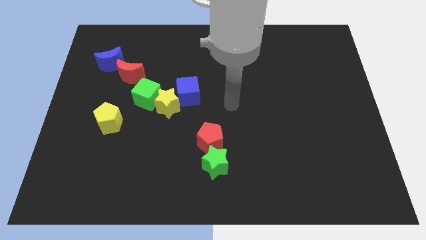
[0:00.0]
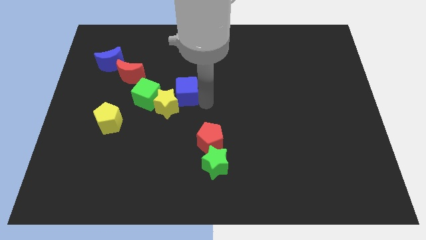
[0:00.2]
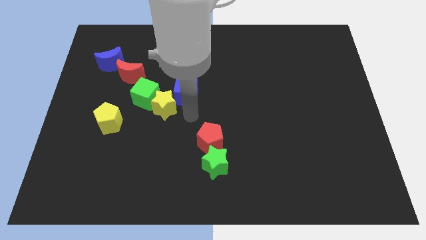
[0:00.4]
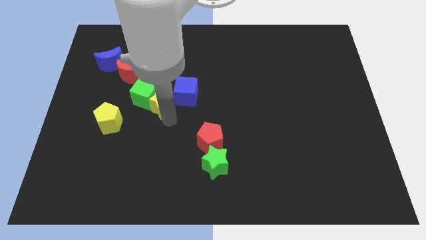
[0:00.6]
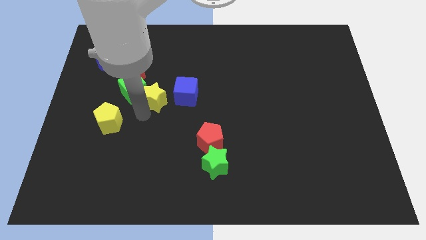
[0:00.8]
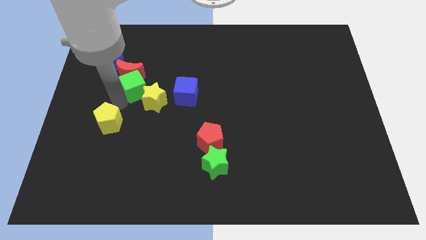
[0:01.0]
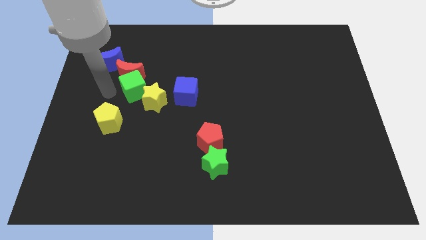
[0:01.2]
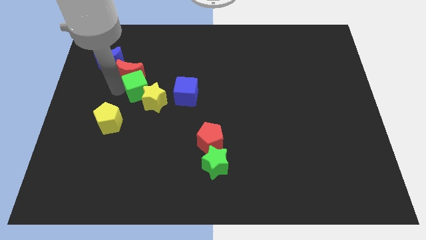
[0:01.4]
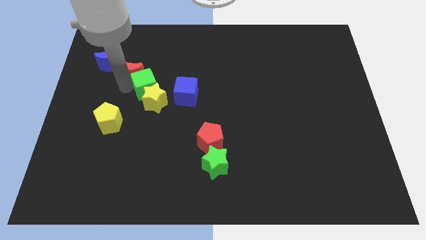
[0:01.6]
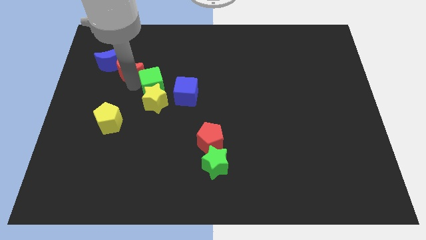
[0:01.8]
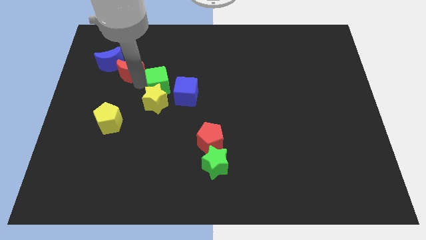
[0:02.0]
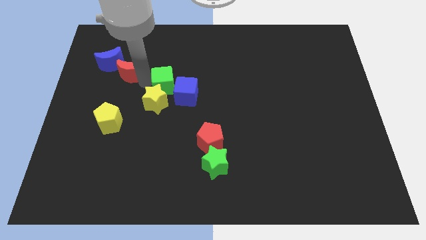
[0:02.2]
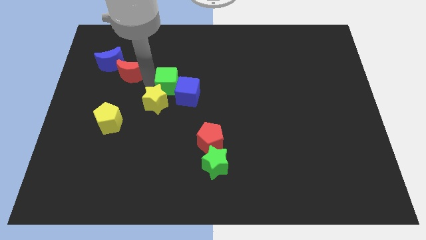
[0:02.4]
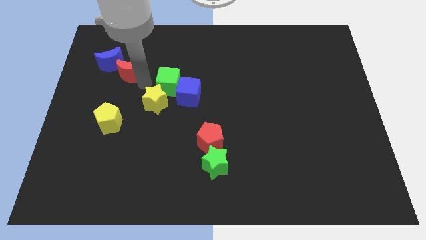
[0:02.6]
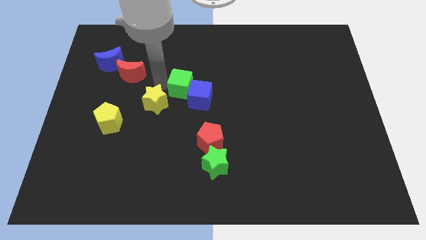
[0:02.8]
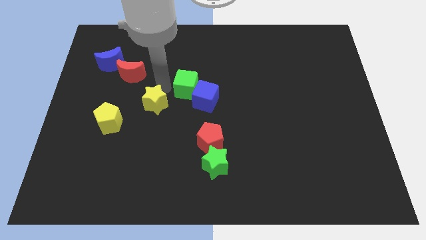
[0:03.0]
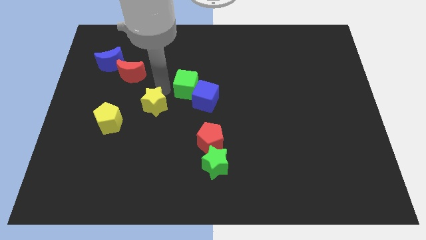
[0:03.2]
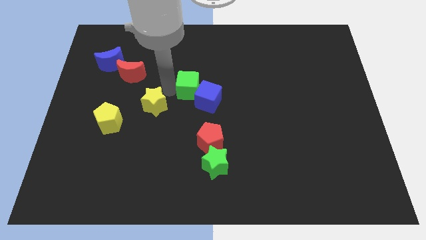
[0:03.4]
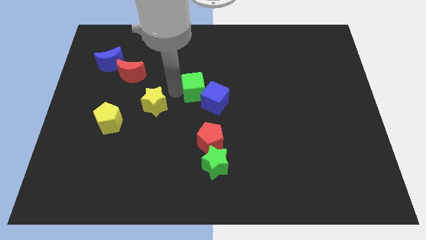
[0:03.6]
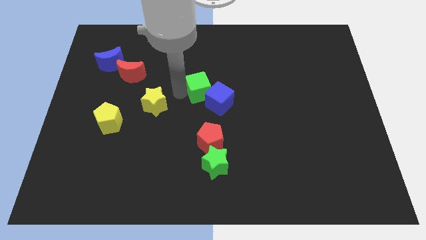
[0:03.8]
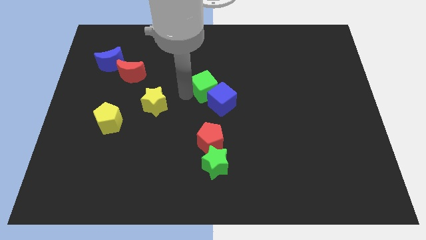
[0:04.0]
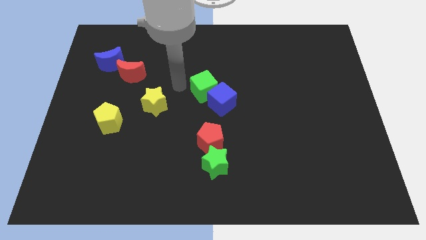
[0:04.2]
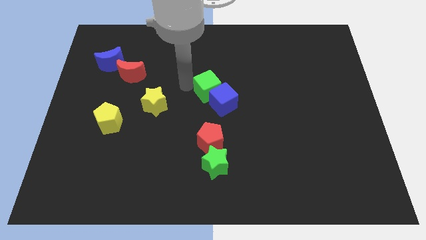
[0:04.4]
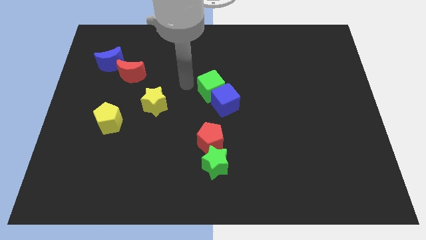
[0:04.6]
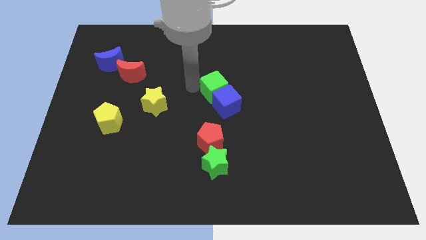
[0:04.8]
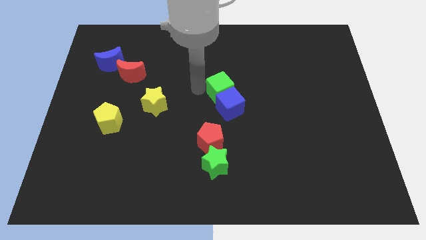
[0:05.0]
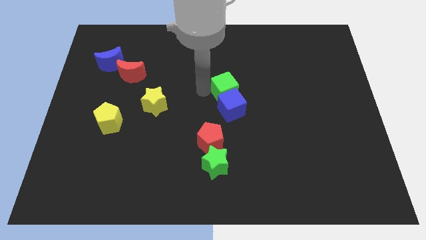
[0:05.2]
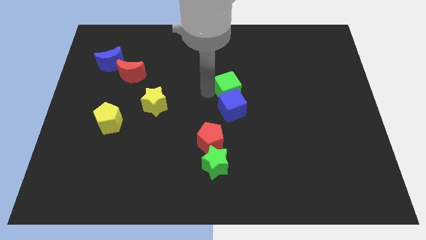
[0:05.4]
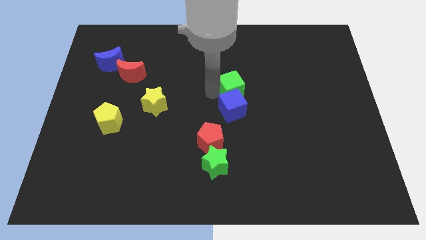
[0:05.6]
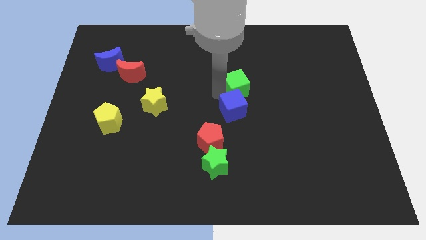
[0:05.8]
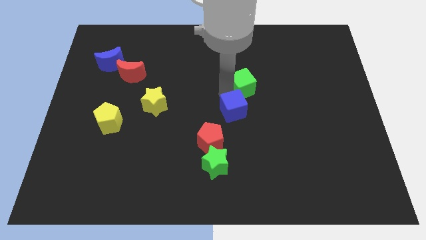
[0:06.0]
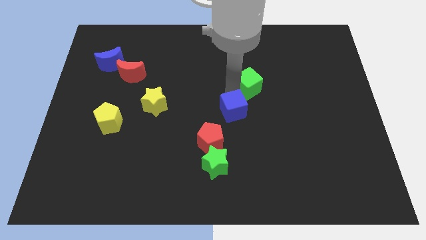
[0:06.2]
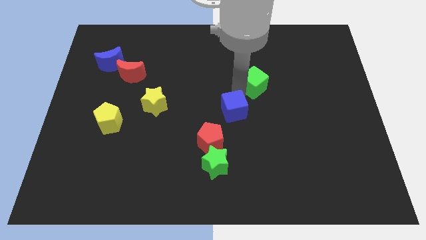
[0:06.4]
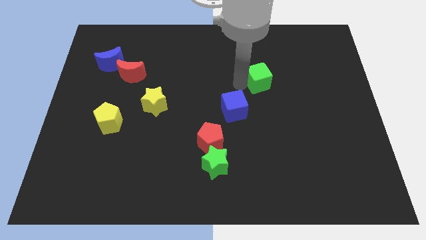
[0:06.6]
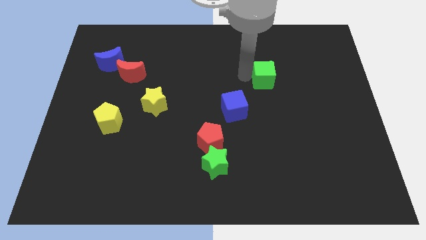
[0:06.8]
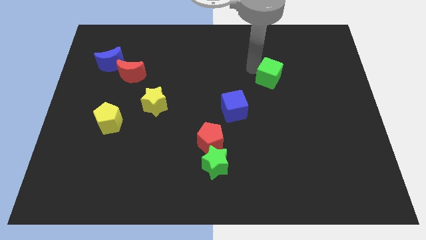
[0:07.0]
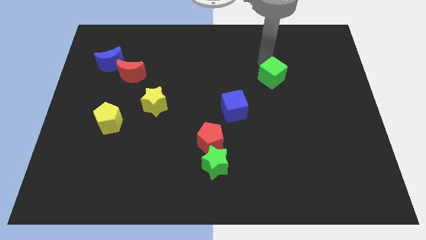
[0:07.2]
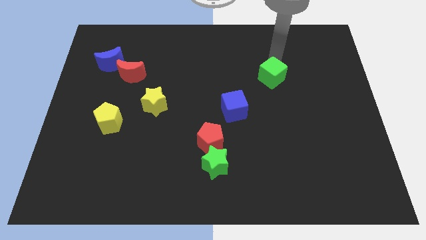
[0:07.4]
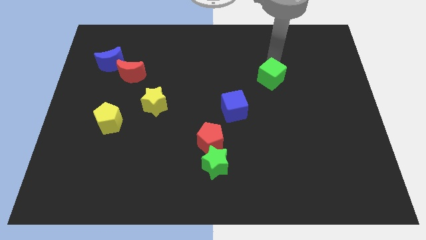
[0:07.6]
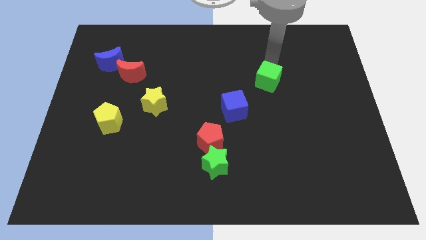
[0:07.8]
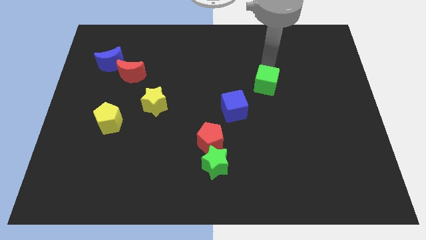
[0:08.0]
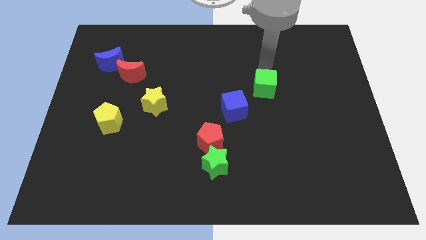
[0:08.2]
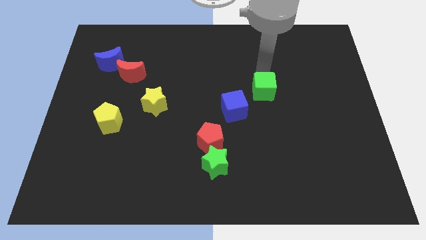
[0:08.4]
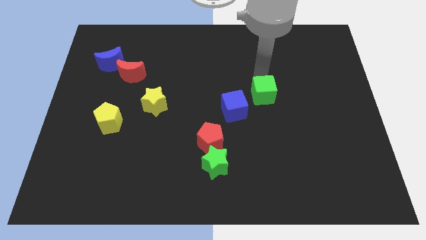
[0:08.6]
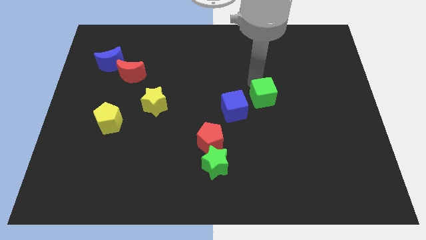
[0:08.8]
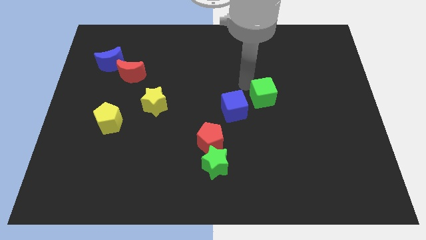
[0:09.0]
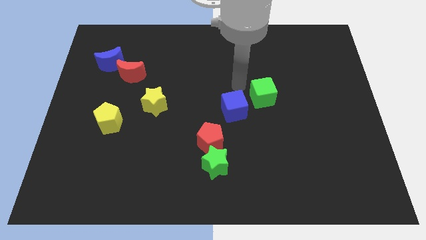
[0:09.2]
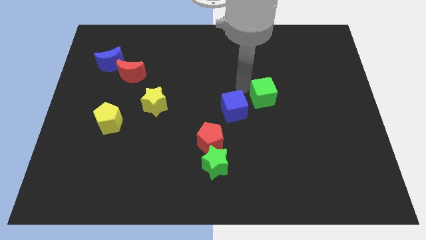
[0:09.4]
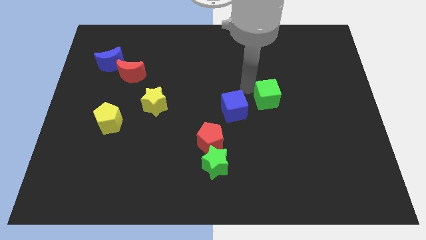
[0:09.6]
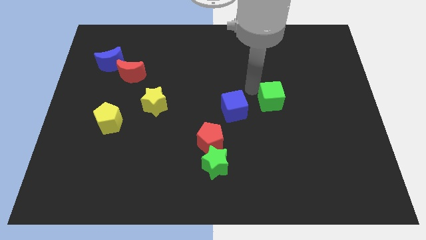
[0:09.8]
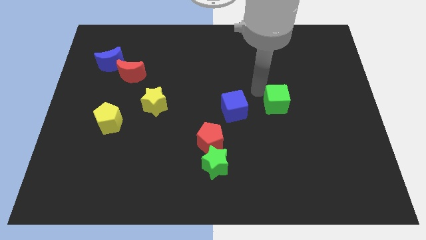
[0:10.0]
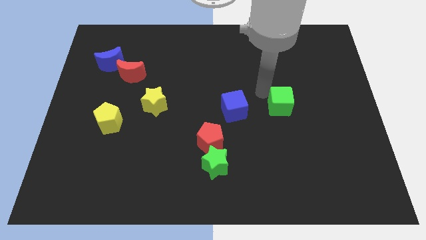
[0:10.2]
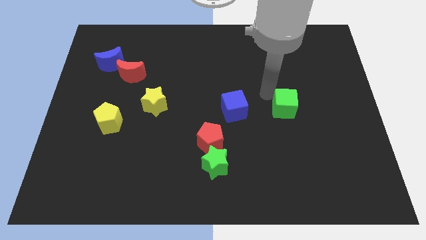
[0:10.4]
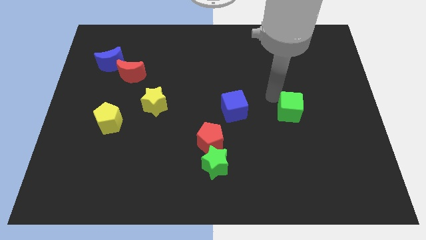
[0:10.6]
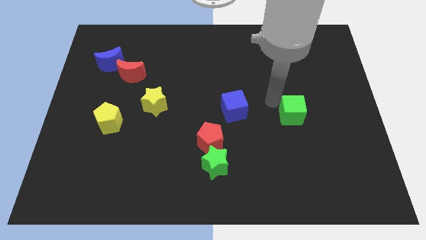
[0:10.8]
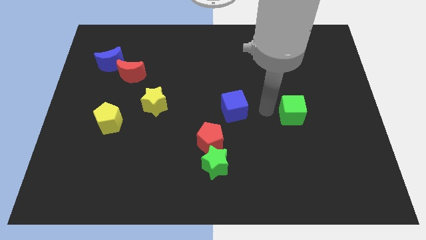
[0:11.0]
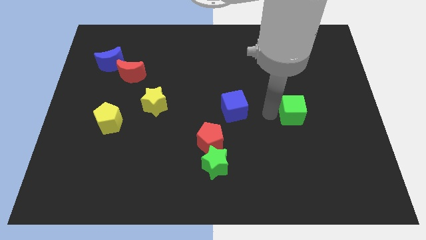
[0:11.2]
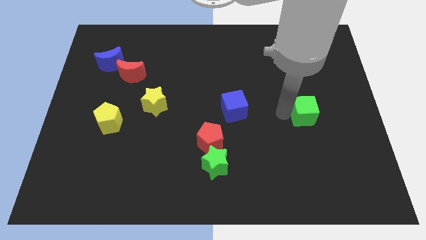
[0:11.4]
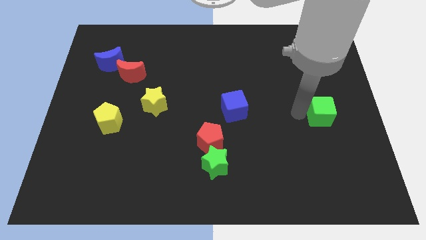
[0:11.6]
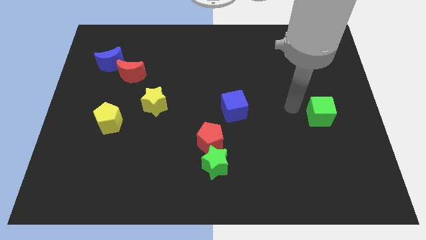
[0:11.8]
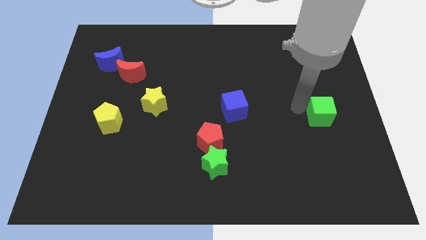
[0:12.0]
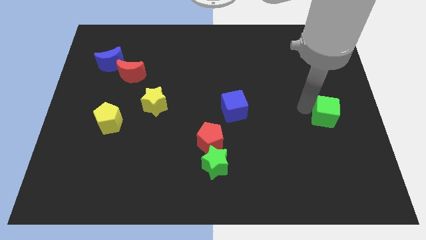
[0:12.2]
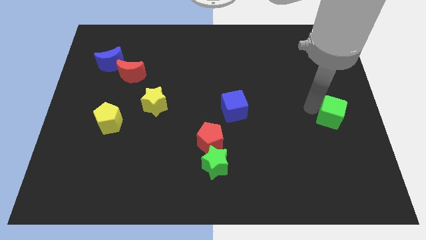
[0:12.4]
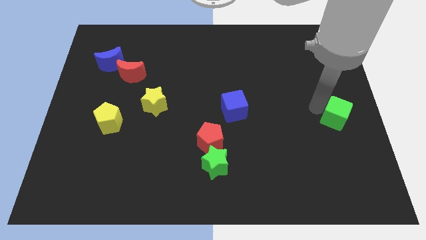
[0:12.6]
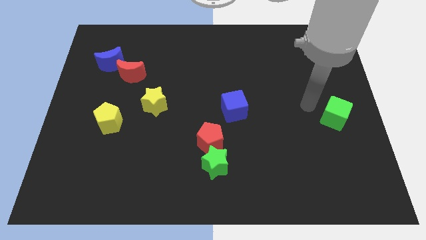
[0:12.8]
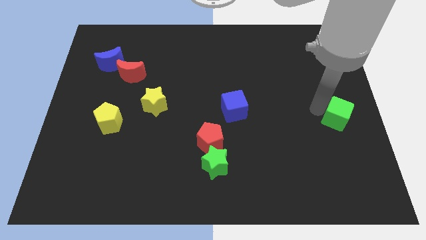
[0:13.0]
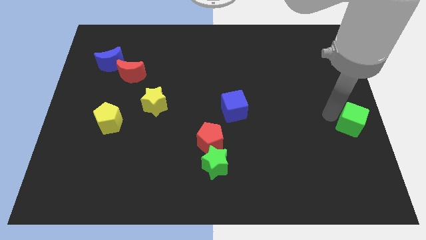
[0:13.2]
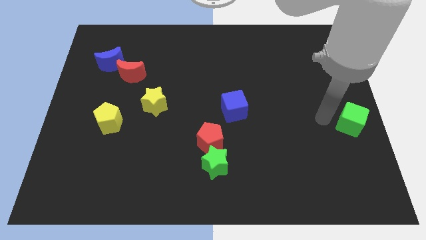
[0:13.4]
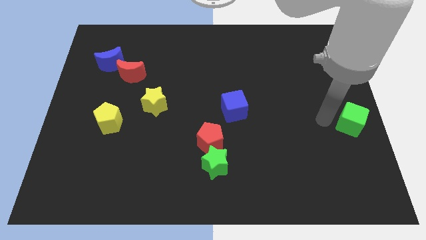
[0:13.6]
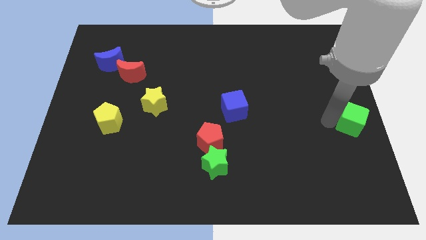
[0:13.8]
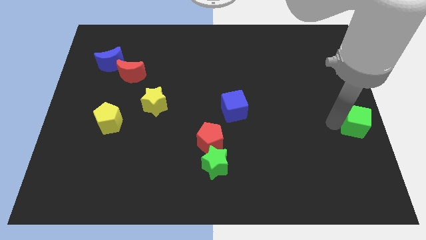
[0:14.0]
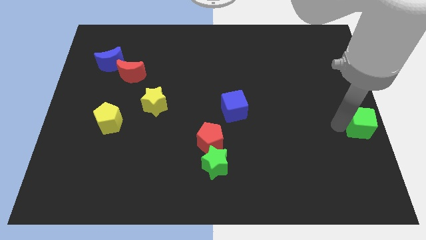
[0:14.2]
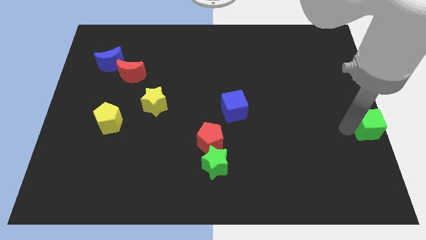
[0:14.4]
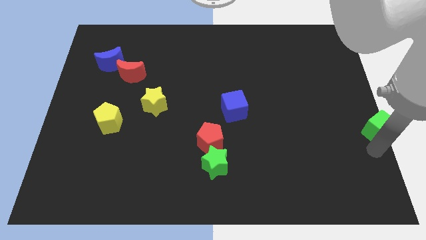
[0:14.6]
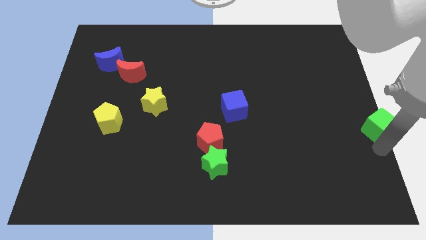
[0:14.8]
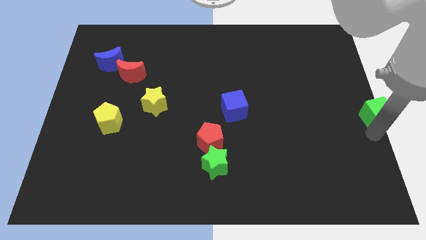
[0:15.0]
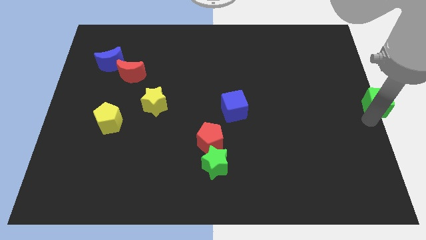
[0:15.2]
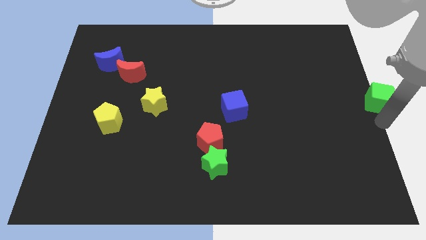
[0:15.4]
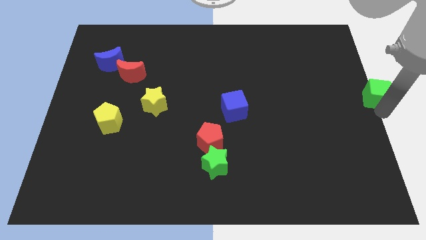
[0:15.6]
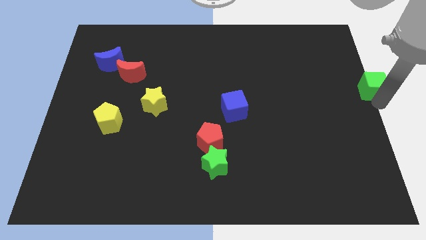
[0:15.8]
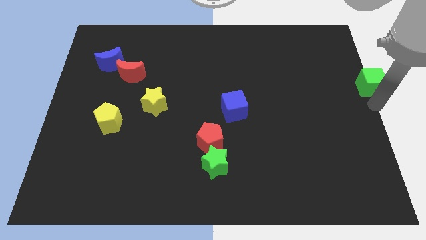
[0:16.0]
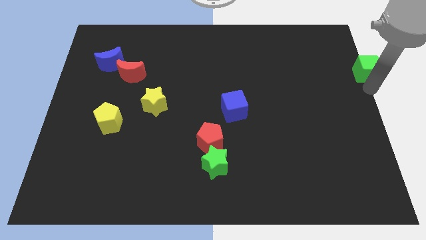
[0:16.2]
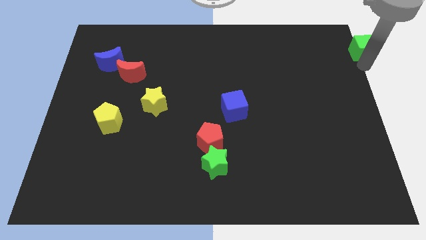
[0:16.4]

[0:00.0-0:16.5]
push the green cube to the upper right corner
